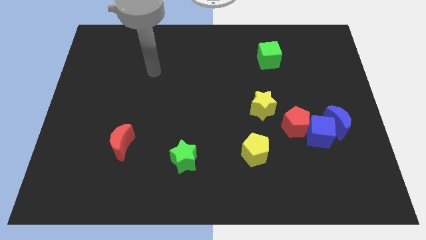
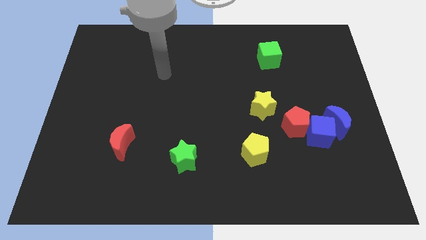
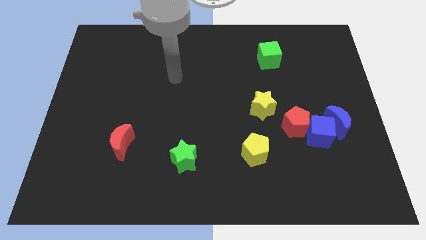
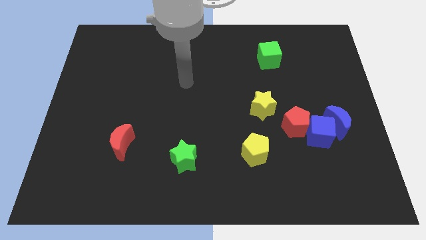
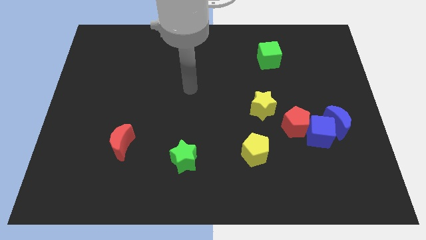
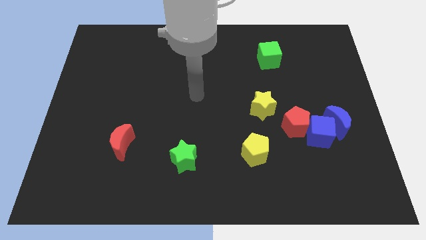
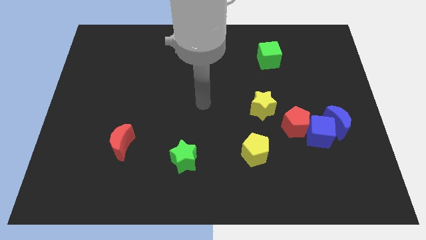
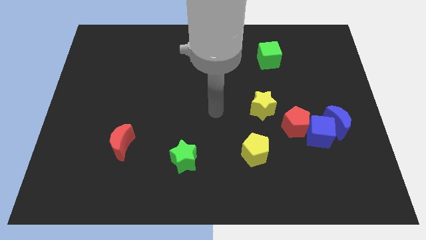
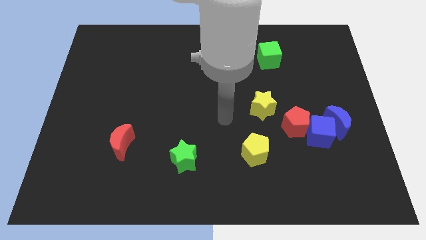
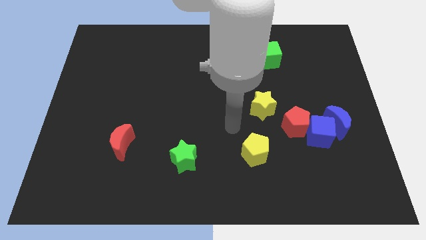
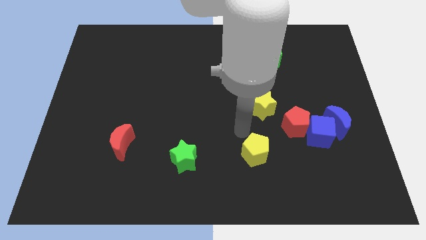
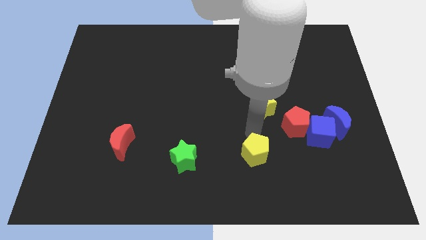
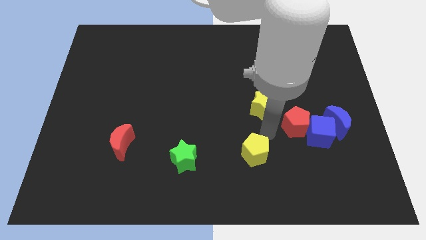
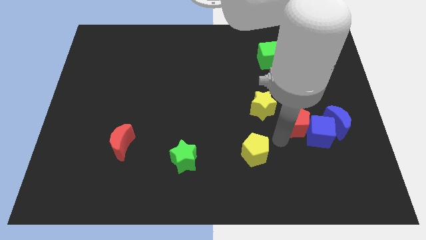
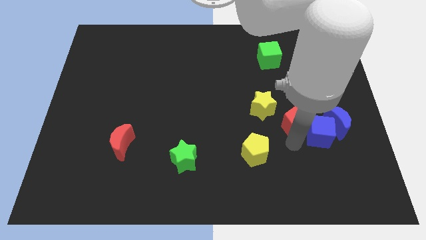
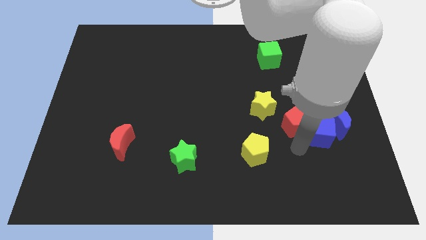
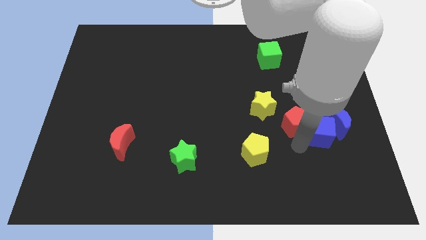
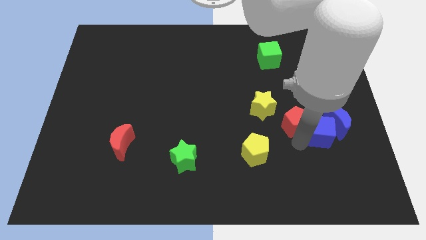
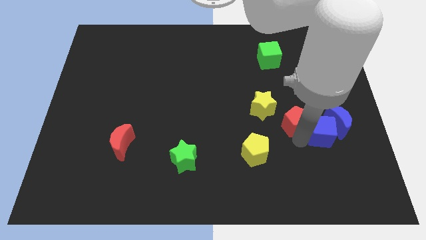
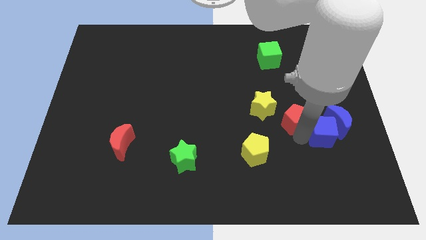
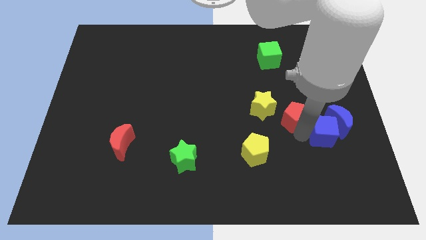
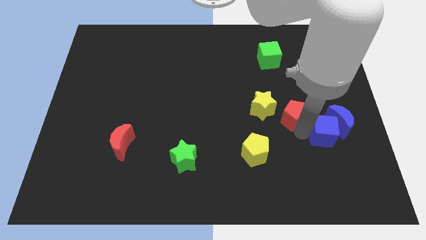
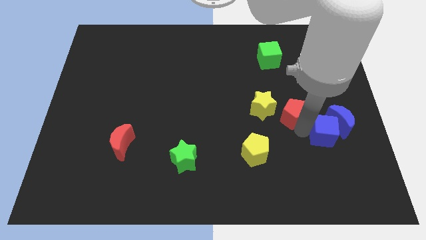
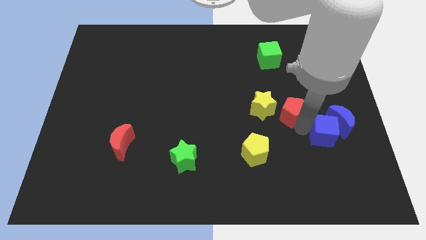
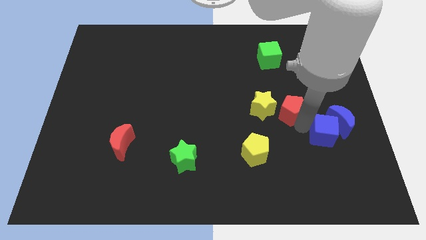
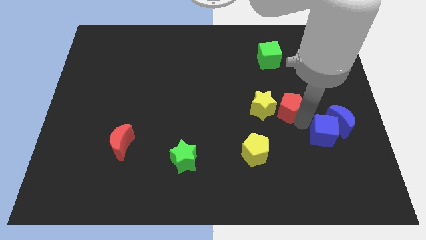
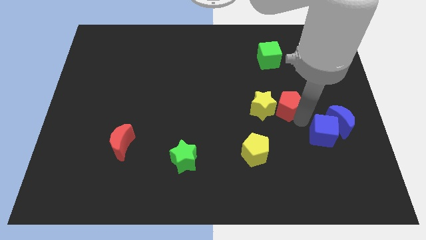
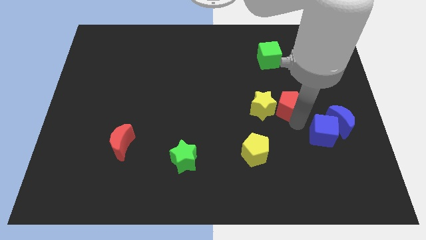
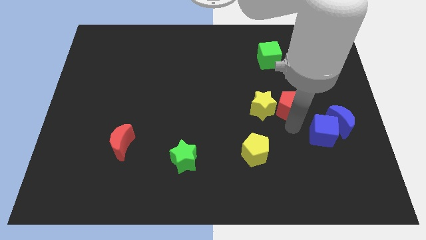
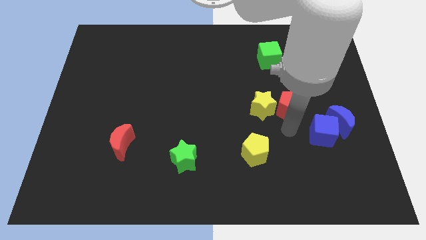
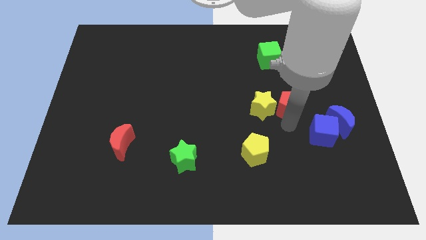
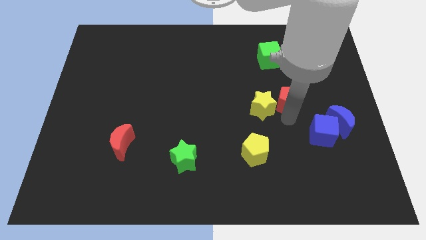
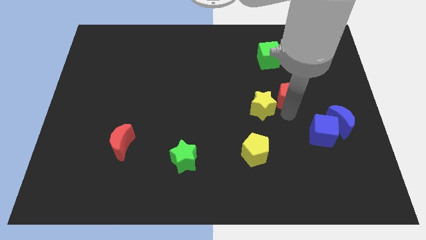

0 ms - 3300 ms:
move the red pentagon upwards somewhat

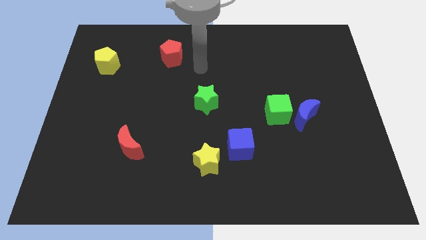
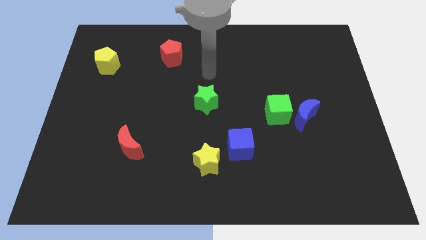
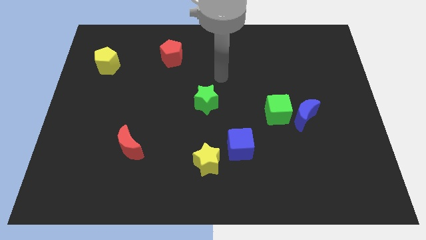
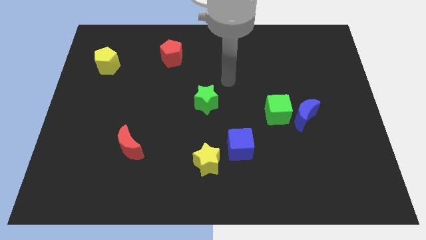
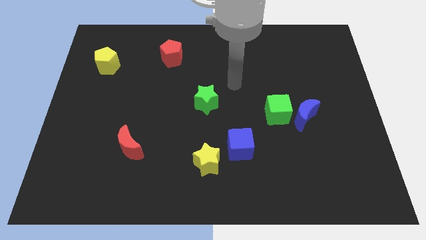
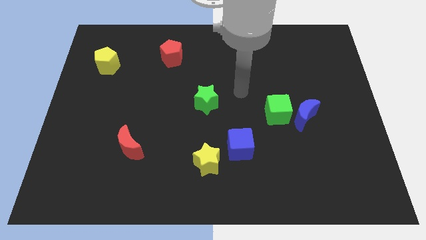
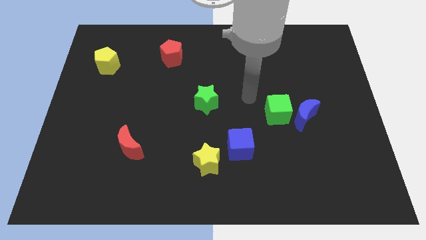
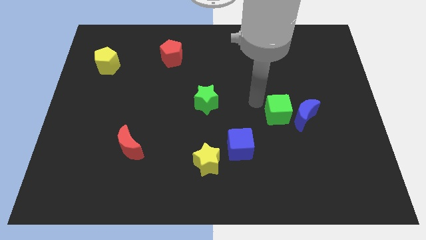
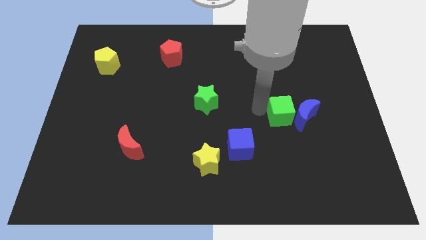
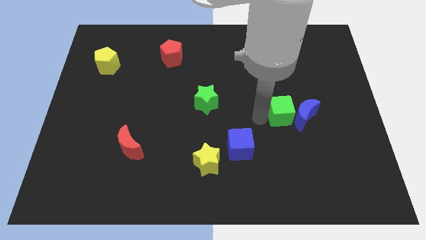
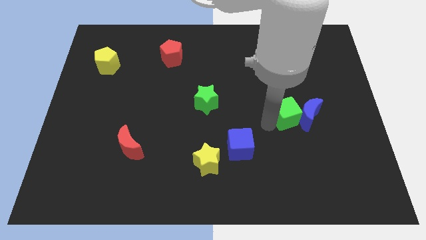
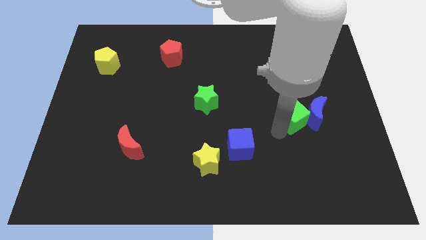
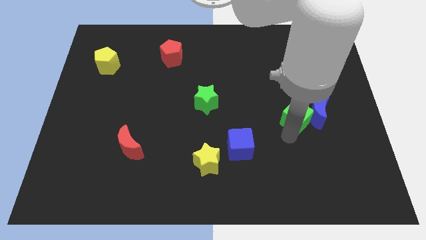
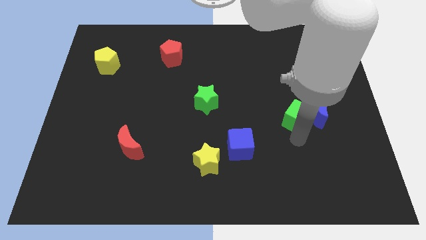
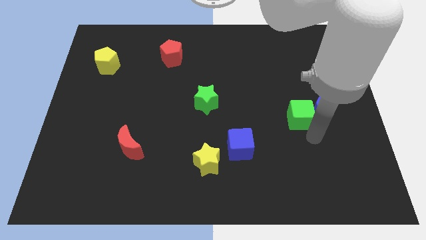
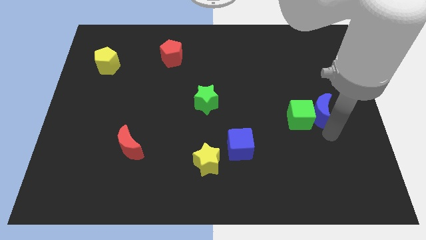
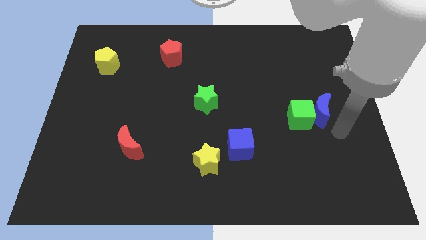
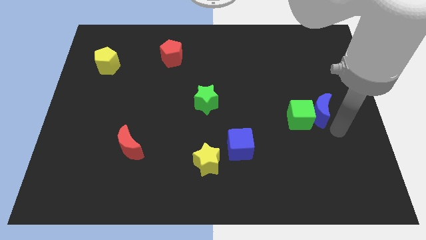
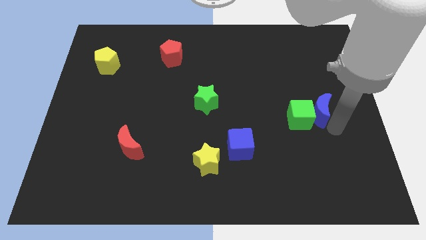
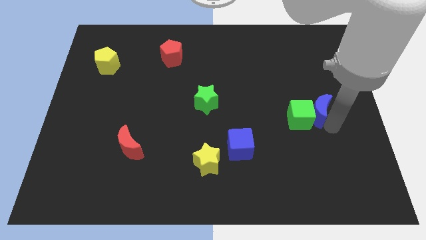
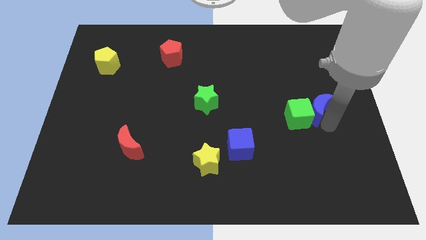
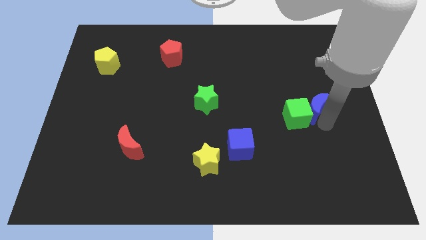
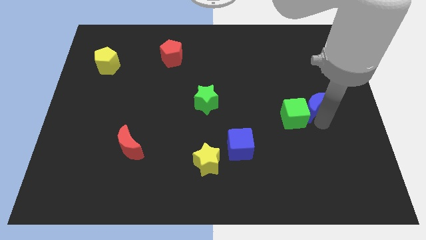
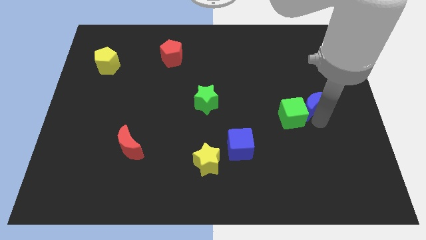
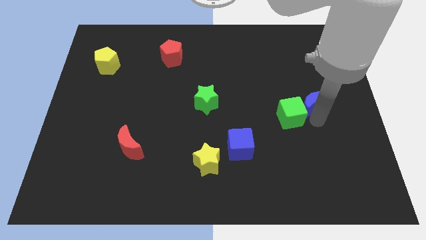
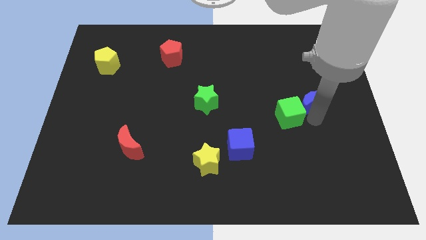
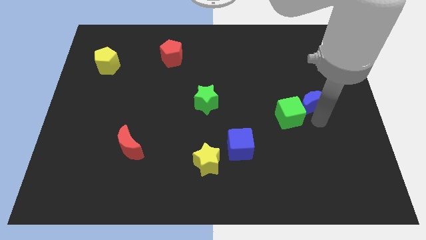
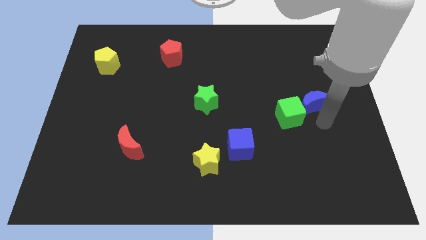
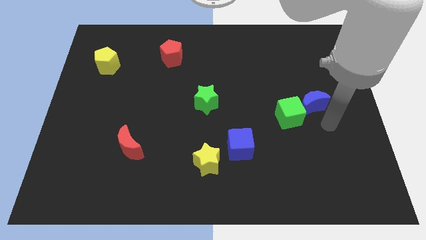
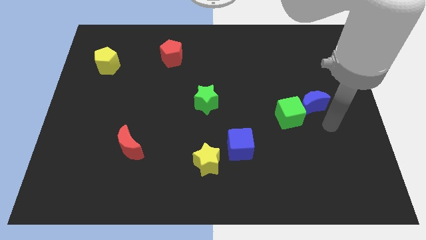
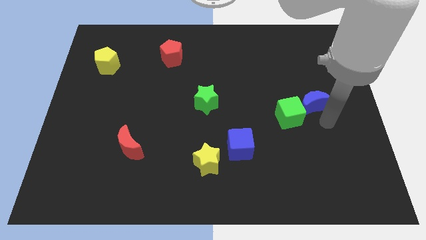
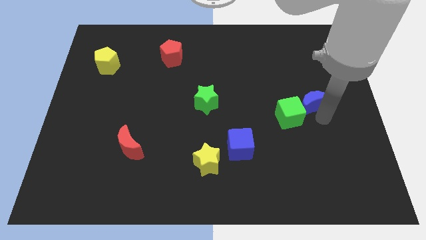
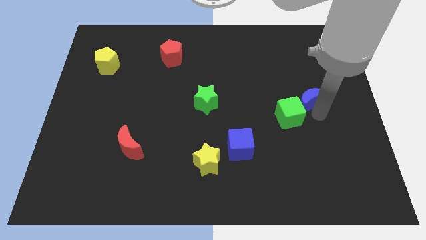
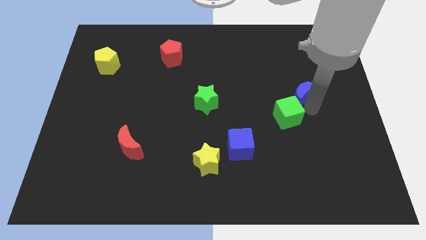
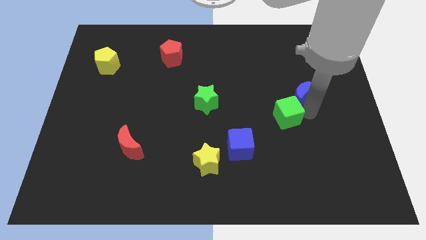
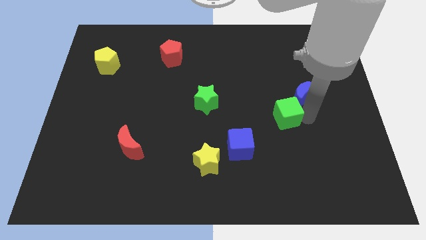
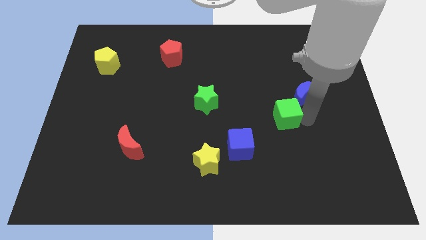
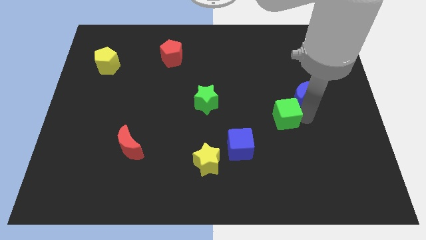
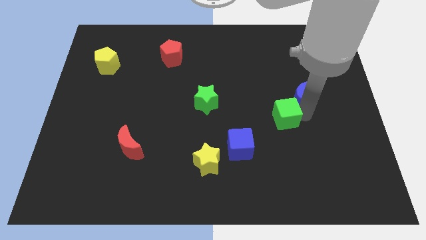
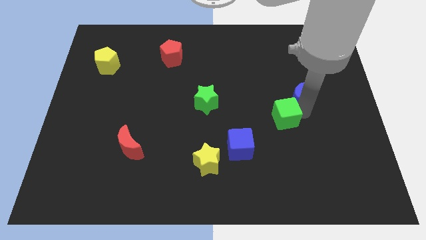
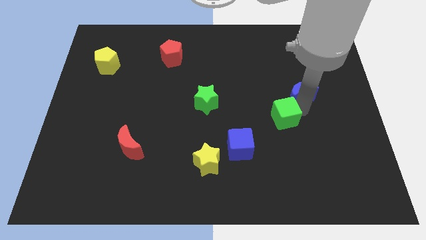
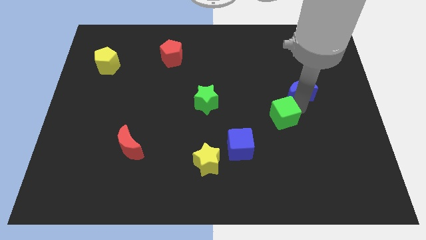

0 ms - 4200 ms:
slightly push the blue moon upwards

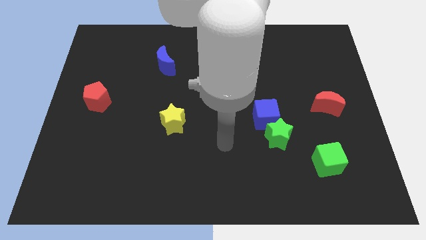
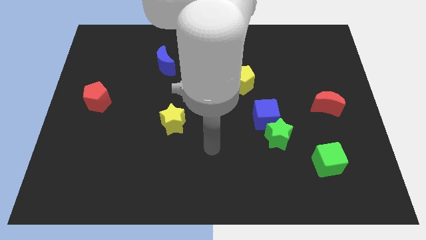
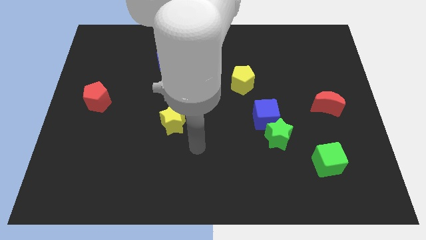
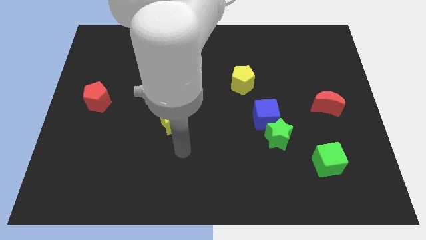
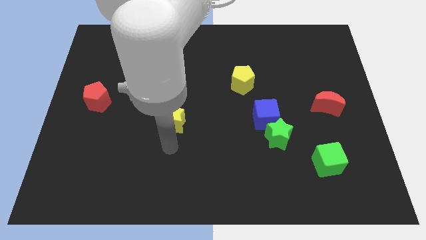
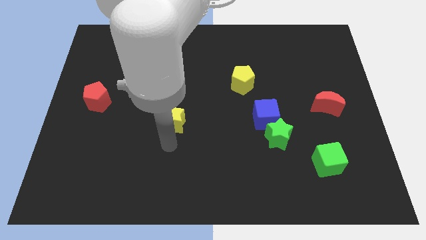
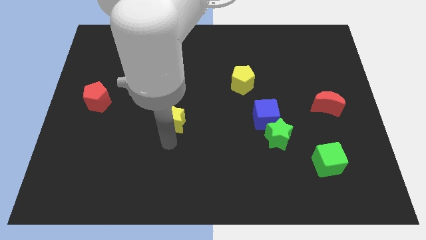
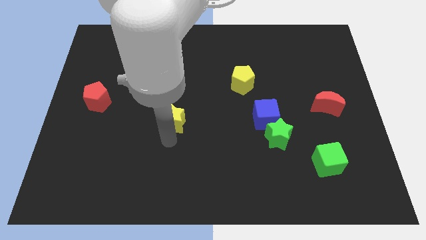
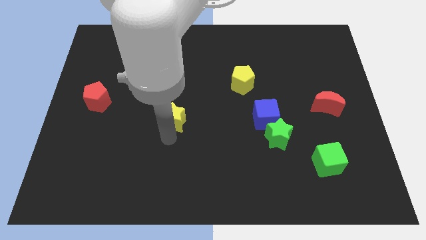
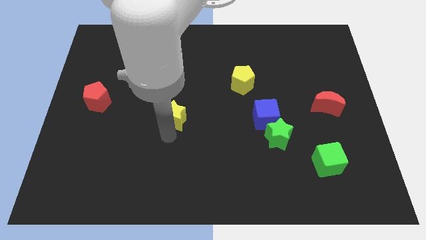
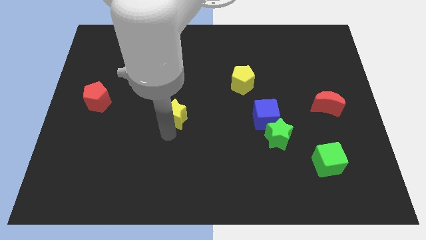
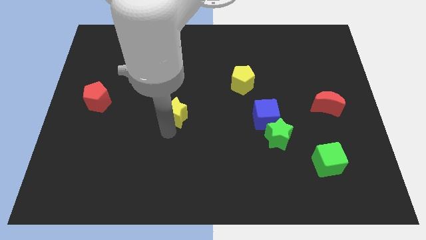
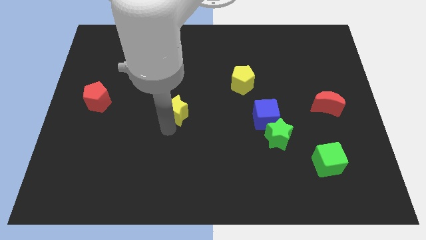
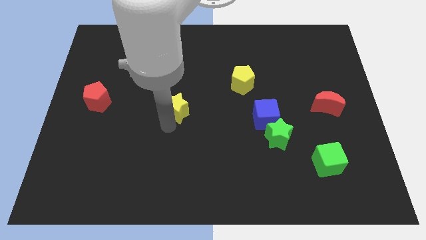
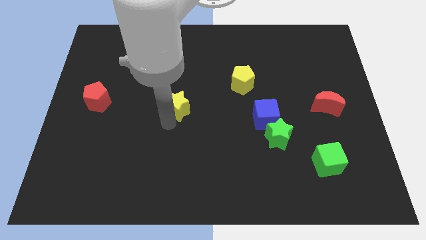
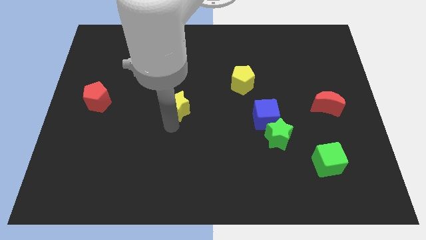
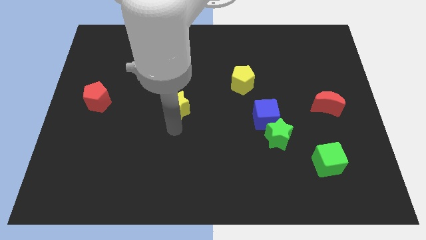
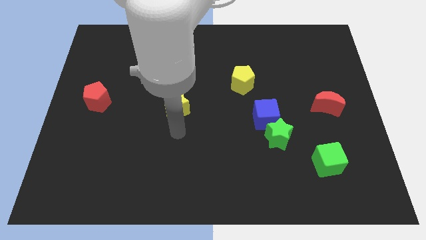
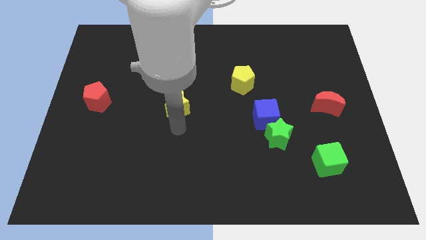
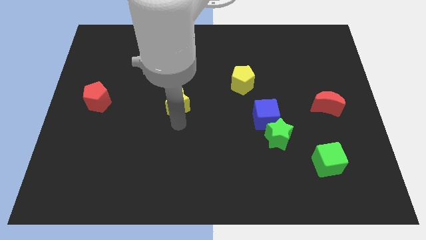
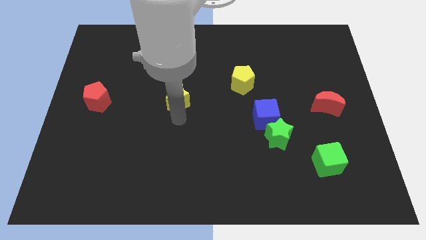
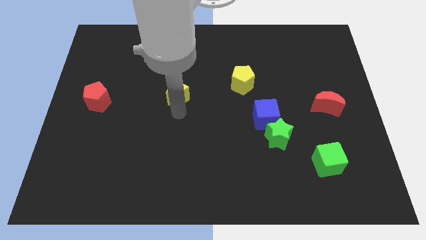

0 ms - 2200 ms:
move the yellow star a bit up
